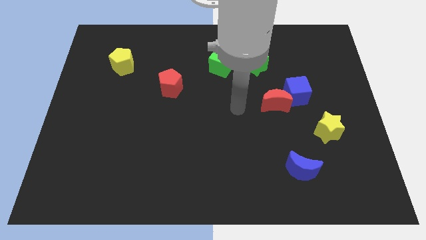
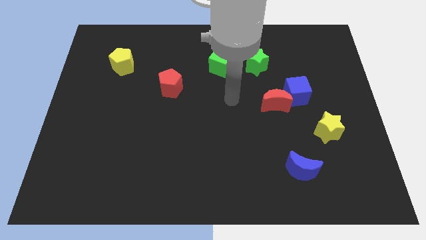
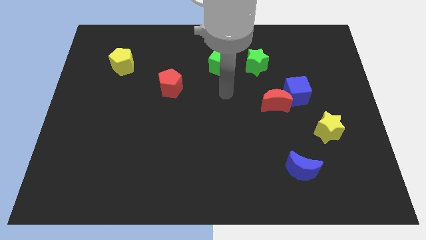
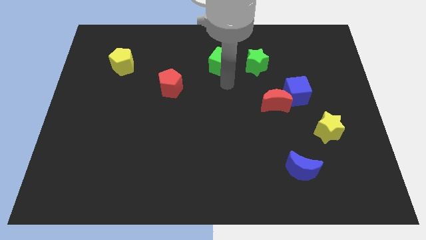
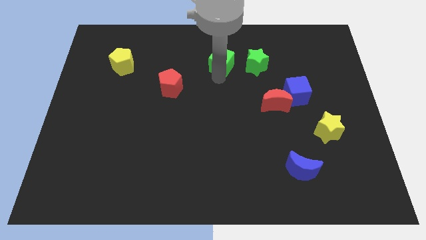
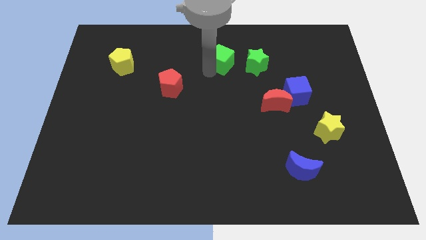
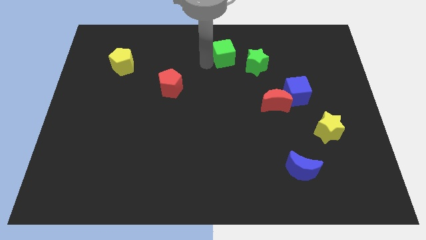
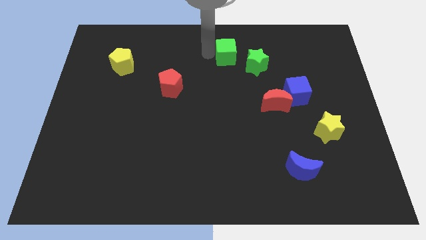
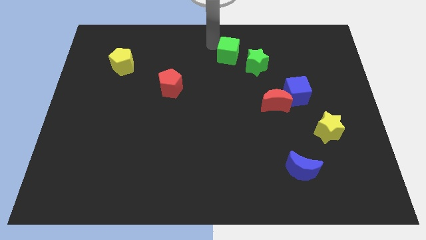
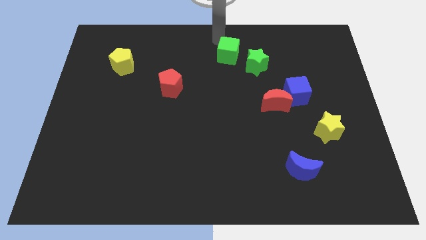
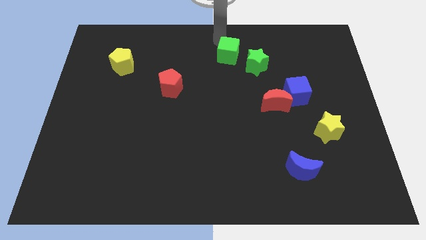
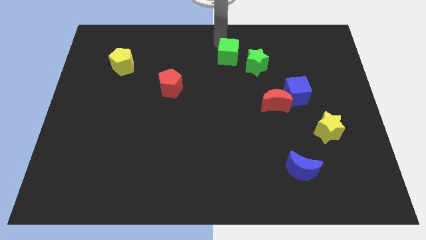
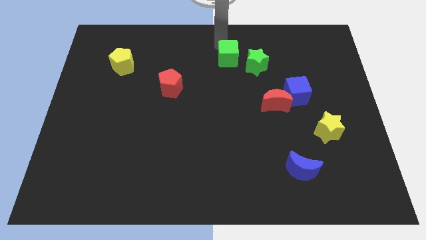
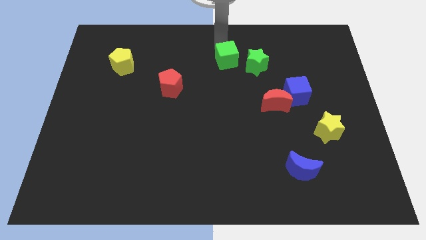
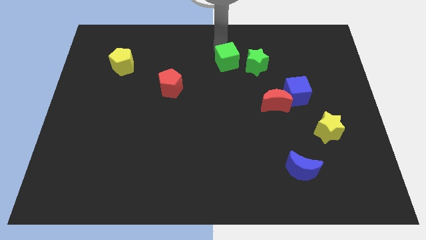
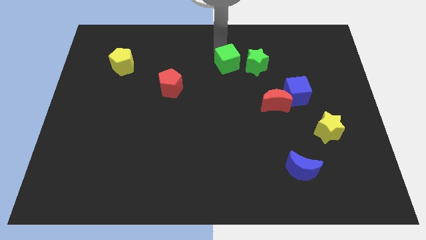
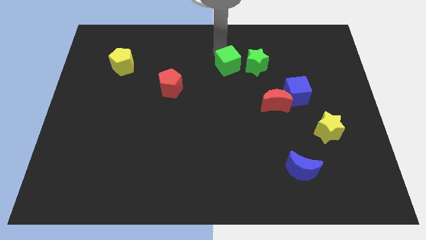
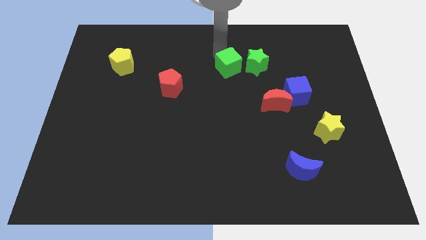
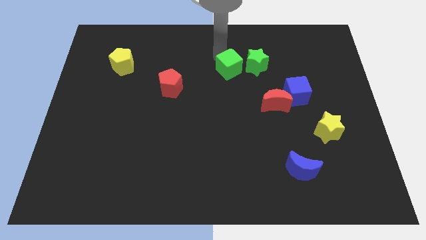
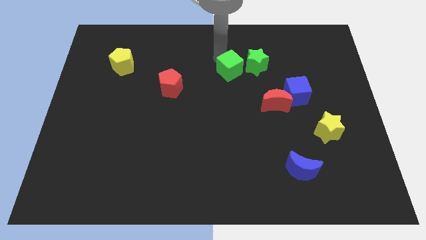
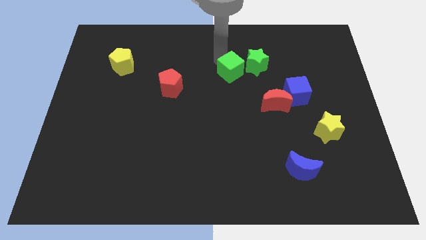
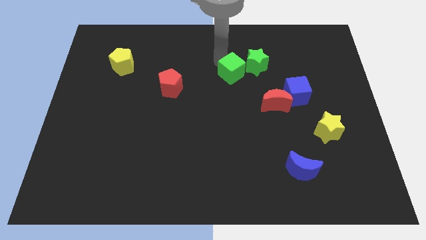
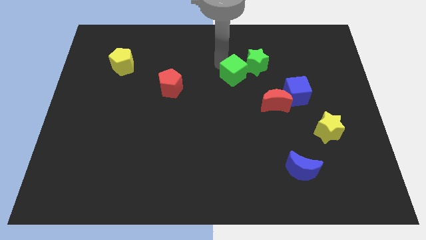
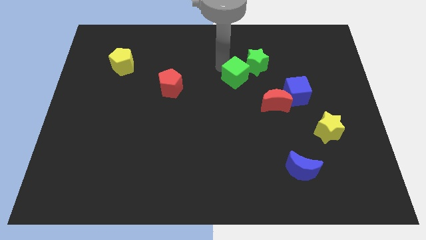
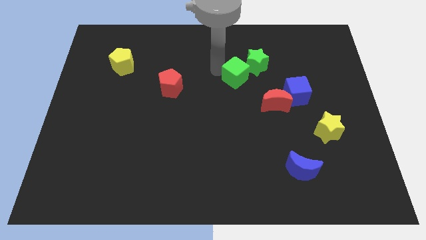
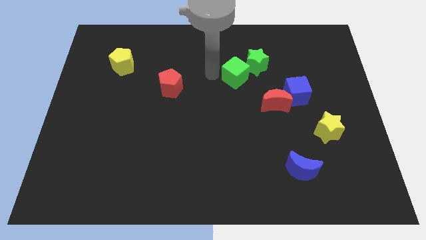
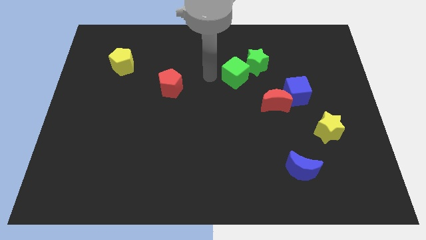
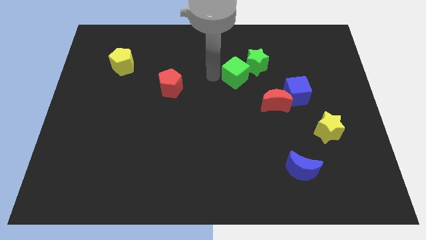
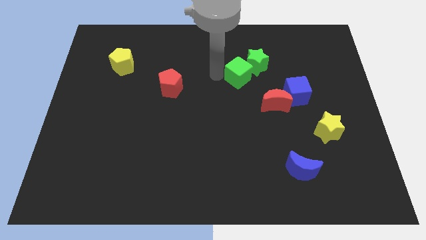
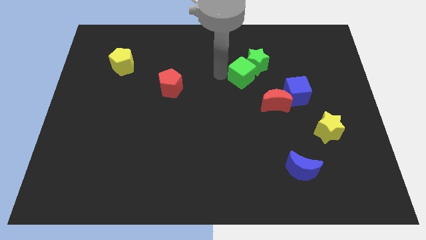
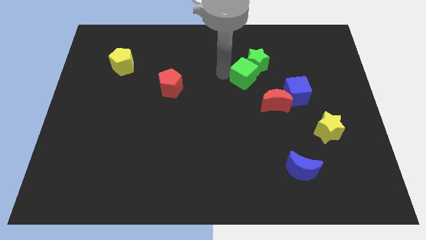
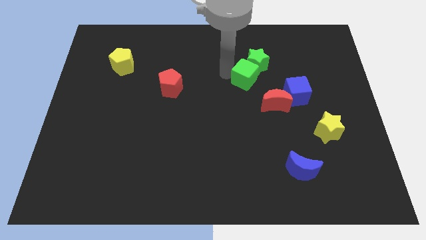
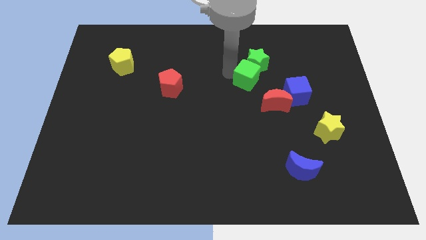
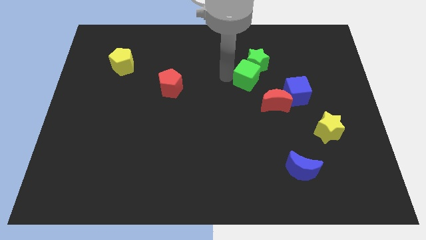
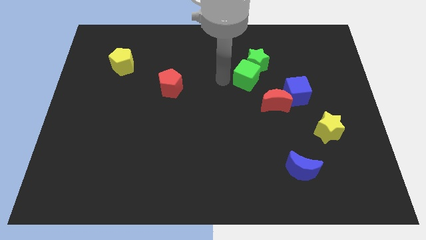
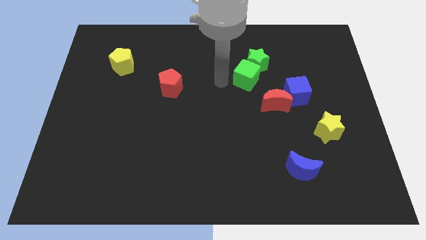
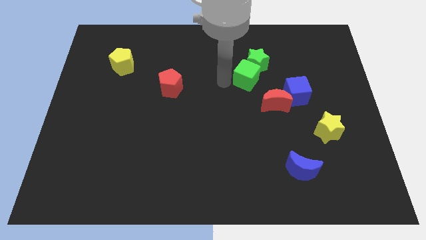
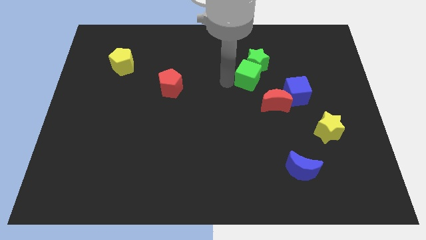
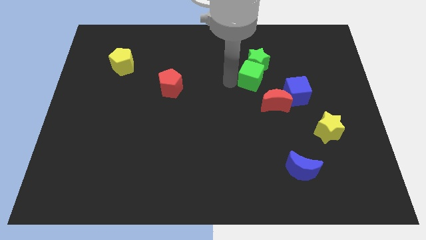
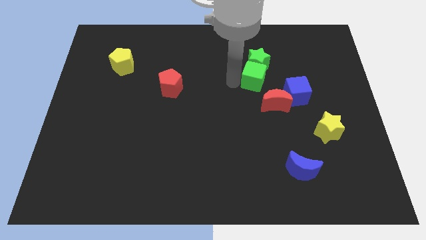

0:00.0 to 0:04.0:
push the green cube right a bit

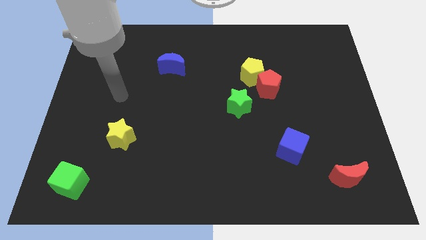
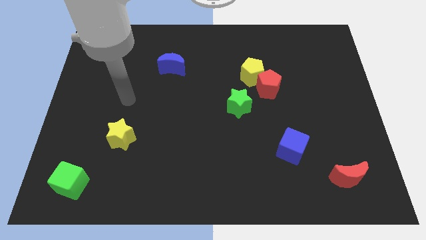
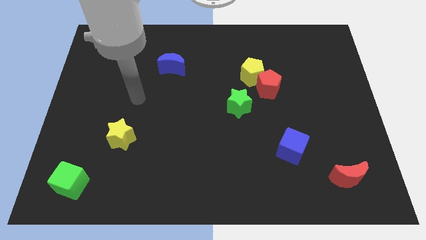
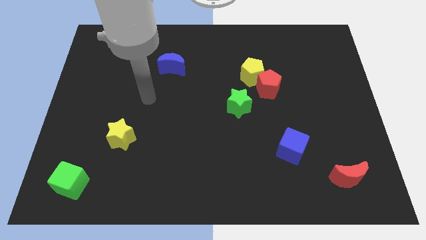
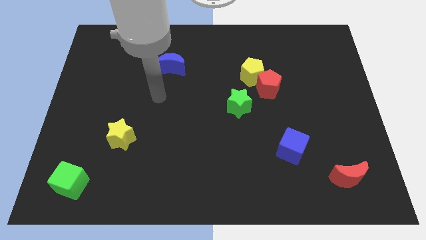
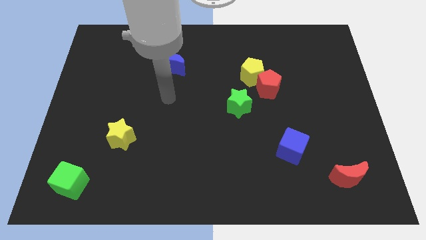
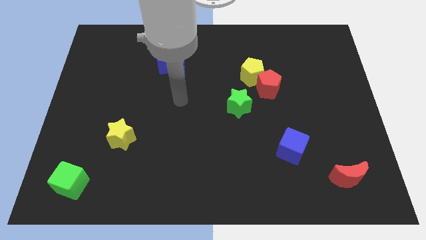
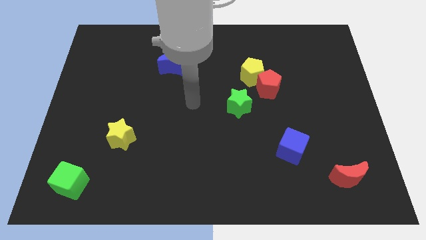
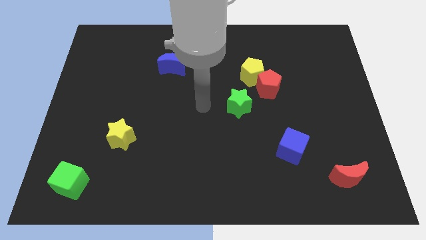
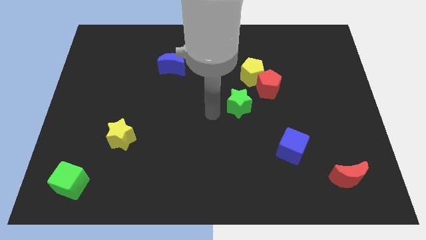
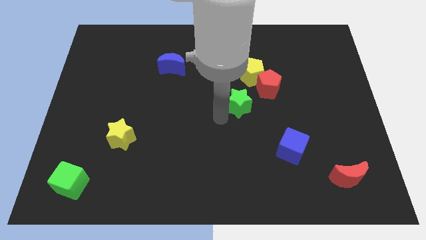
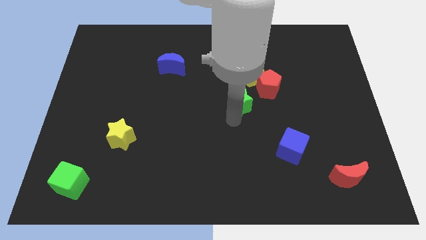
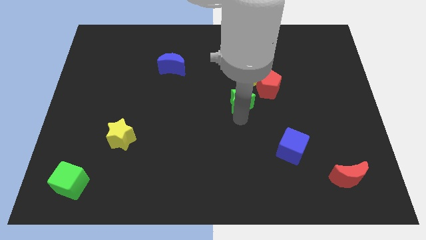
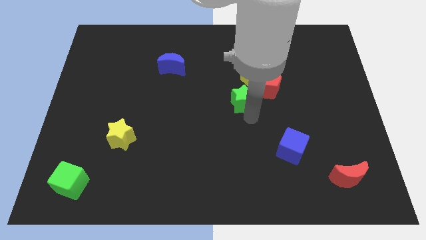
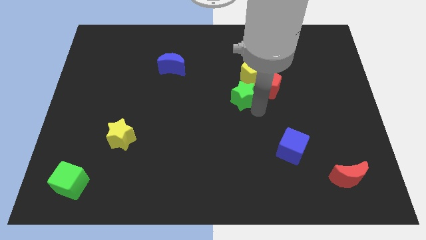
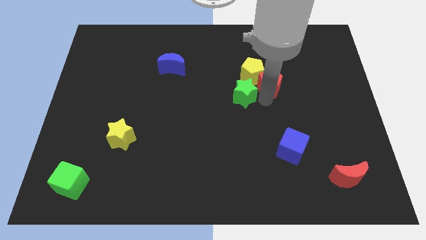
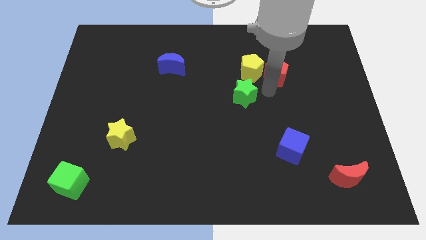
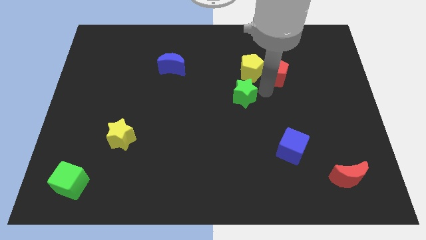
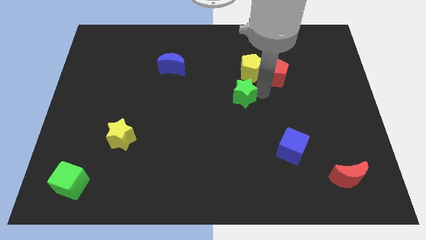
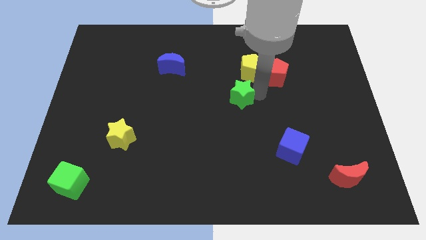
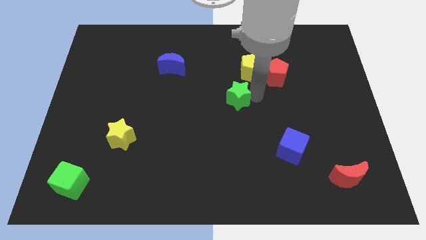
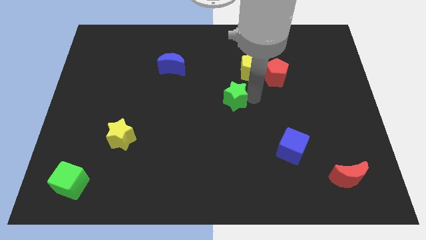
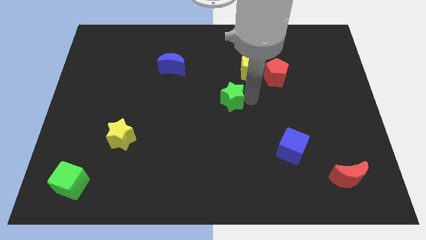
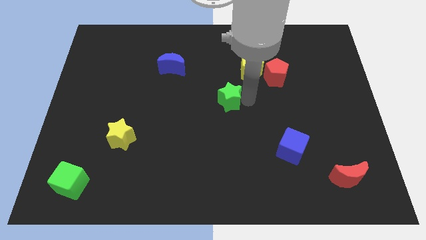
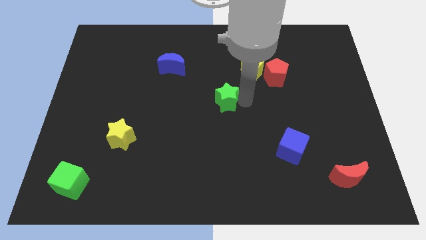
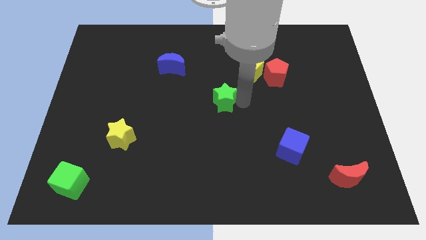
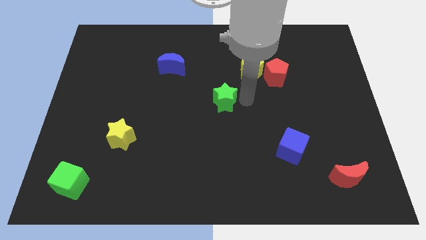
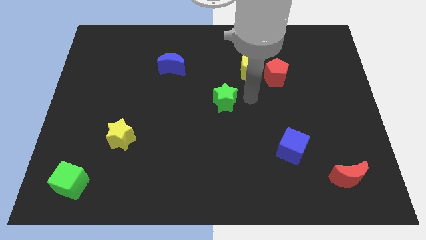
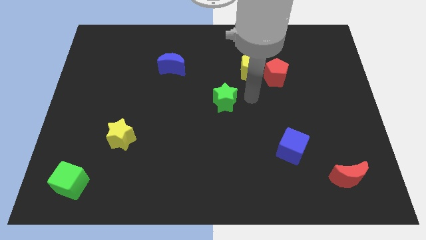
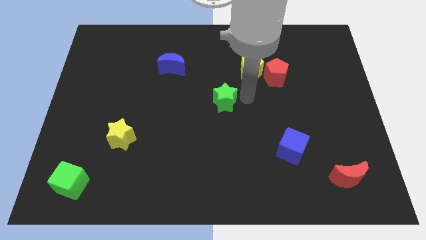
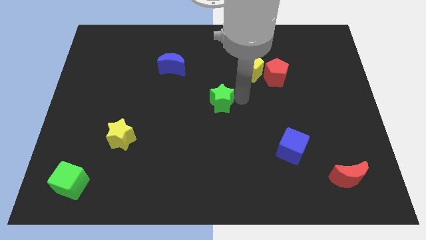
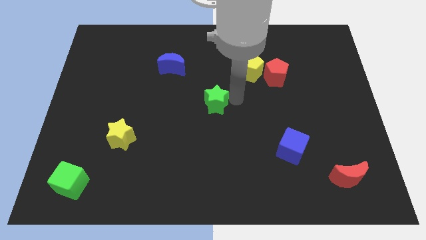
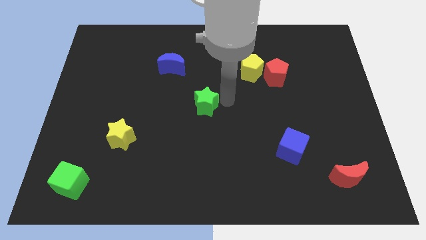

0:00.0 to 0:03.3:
slightly move the green star to the left

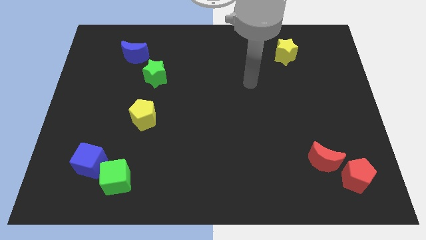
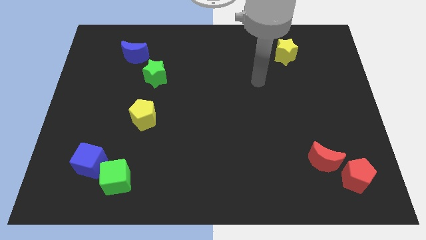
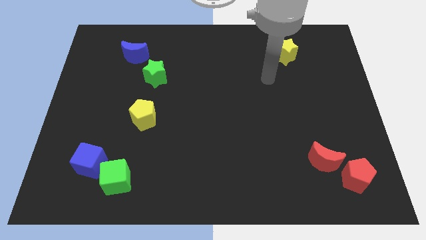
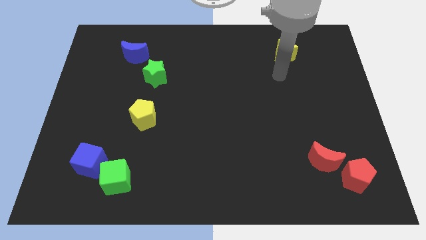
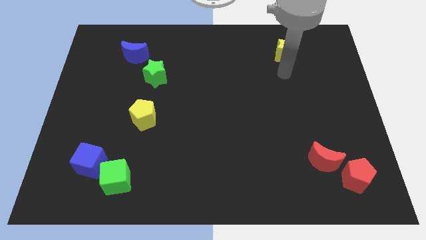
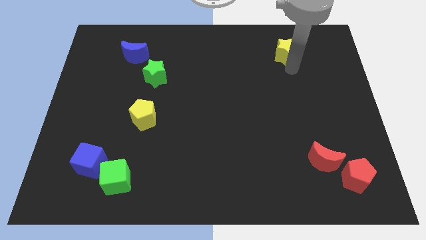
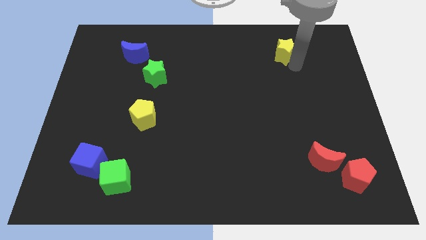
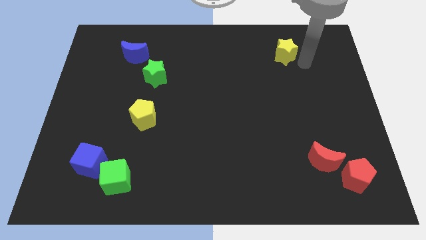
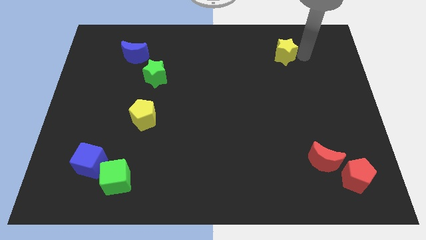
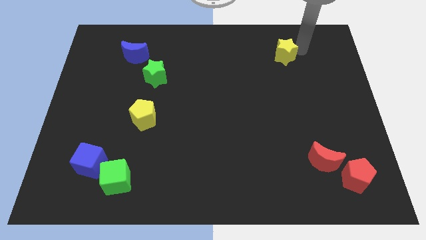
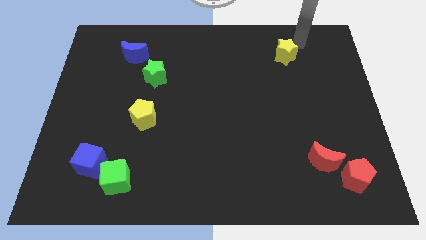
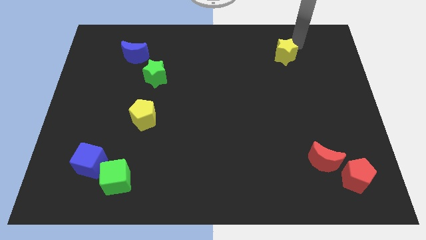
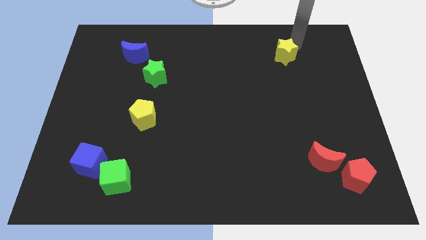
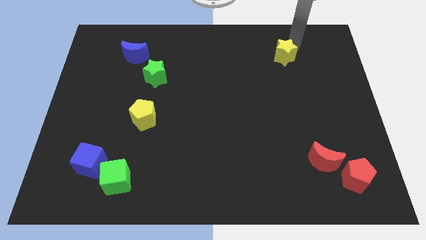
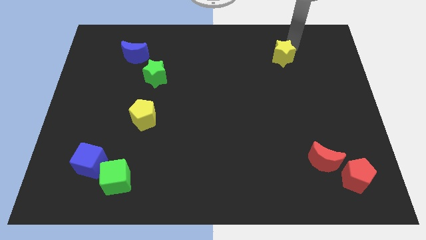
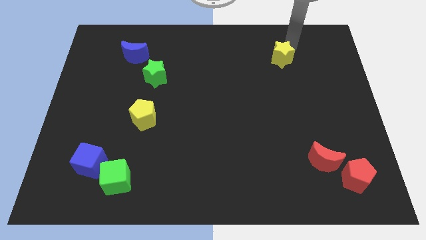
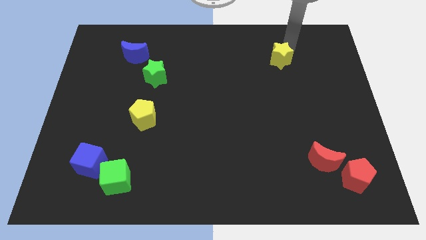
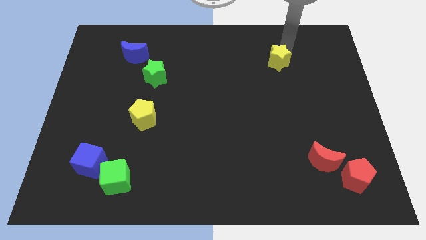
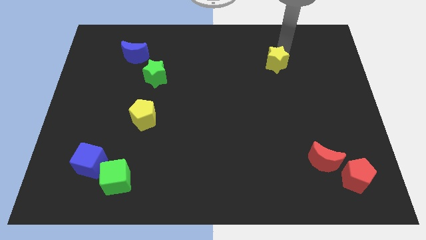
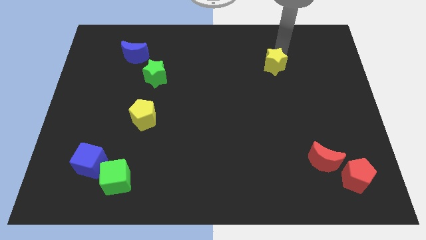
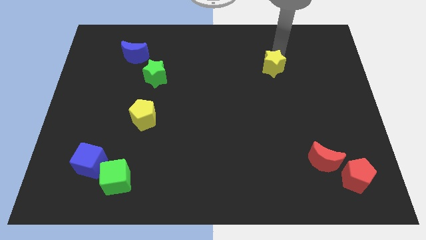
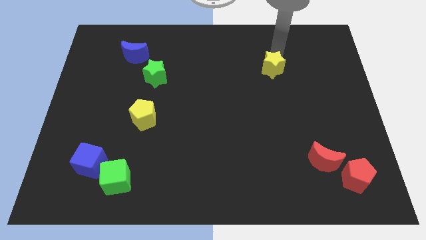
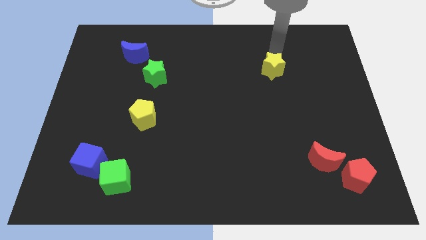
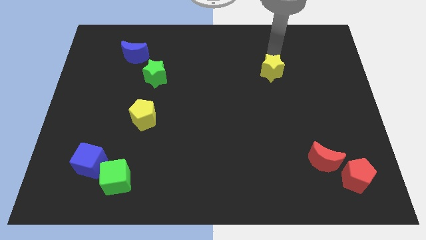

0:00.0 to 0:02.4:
move the yellow star a little bit downwards and then left
